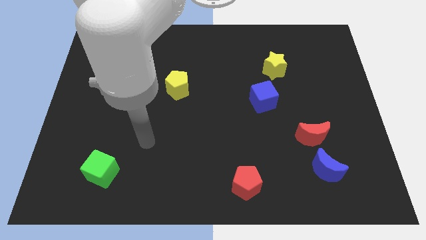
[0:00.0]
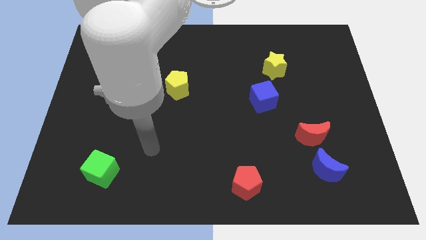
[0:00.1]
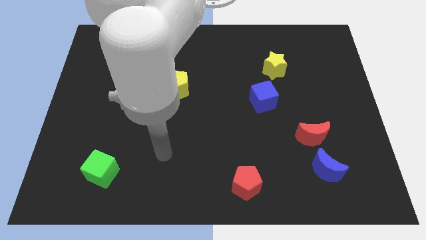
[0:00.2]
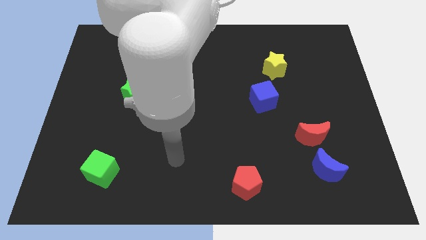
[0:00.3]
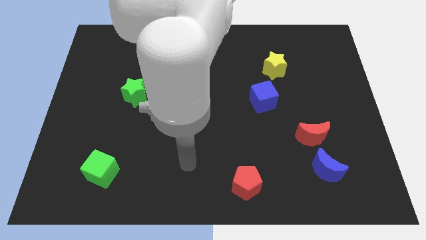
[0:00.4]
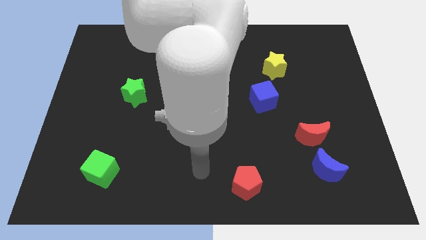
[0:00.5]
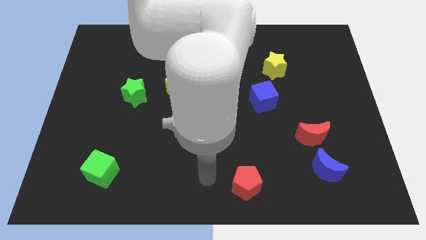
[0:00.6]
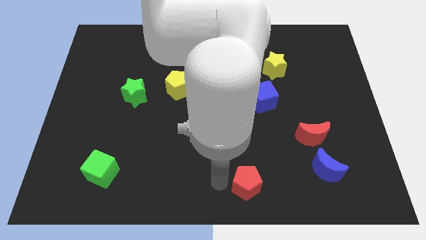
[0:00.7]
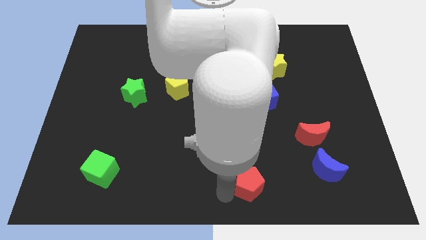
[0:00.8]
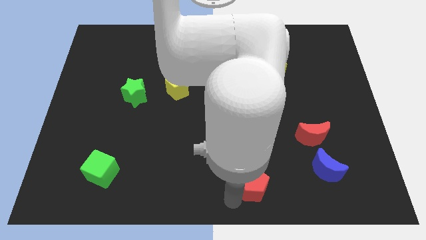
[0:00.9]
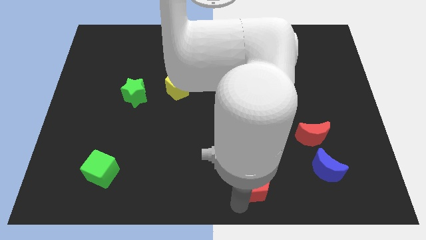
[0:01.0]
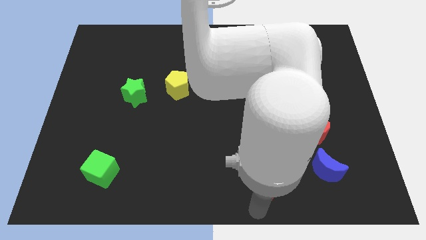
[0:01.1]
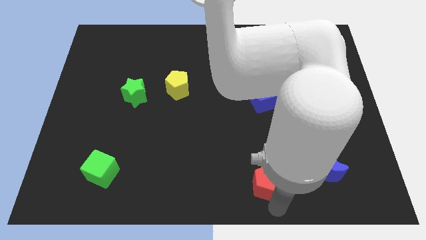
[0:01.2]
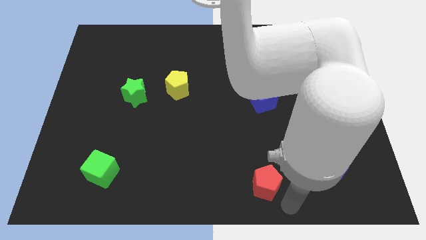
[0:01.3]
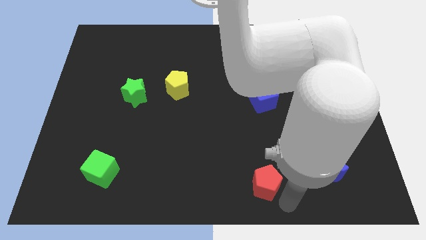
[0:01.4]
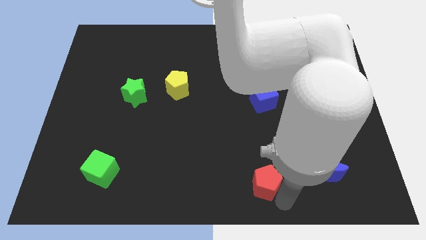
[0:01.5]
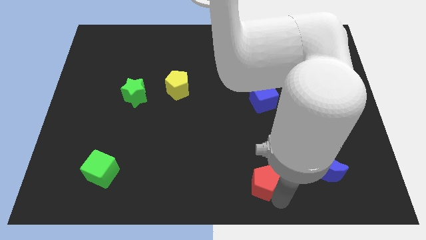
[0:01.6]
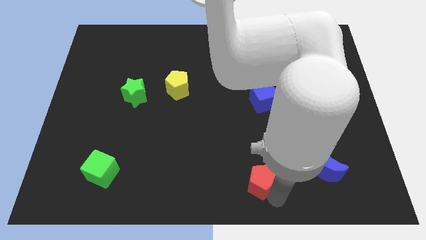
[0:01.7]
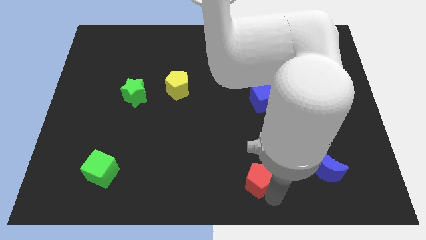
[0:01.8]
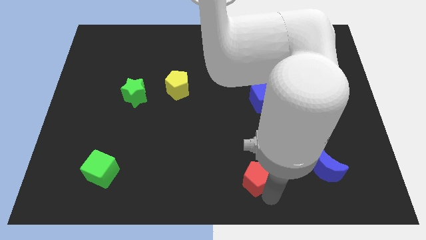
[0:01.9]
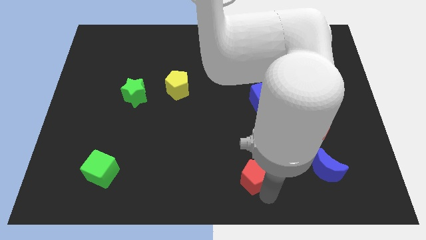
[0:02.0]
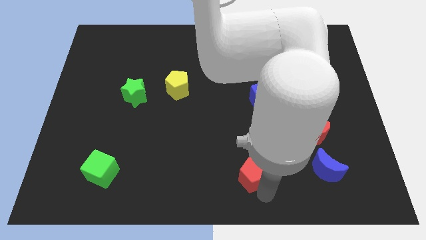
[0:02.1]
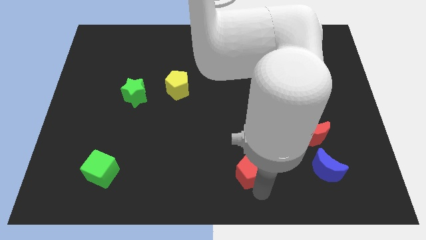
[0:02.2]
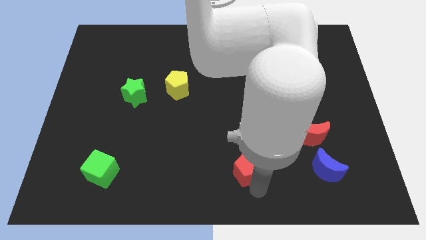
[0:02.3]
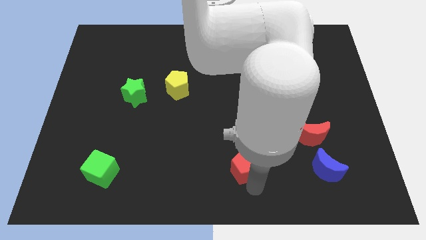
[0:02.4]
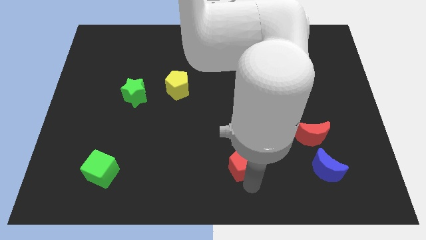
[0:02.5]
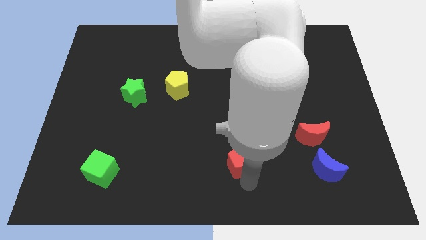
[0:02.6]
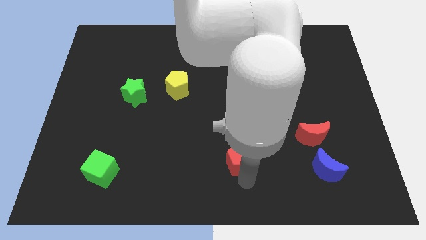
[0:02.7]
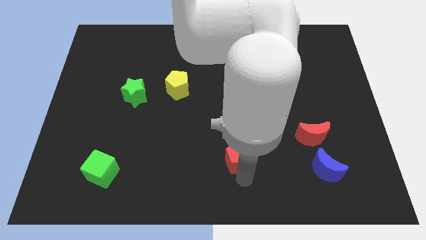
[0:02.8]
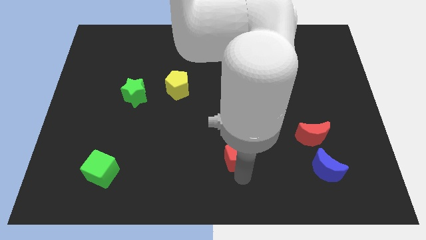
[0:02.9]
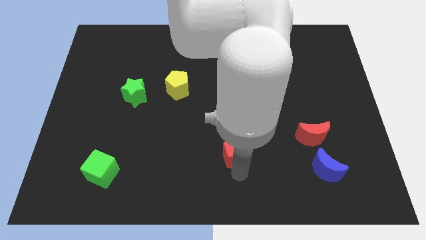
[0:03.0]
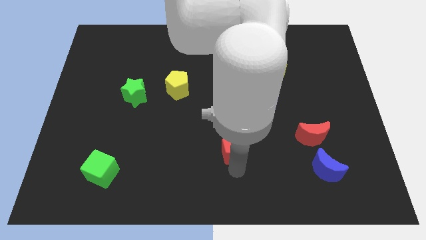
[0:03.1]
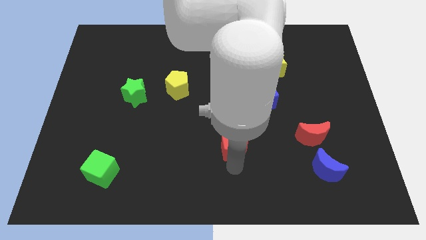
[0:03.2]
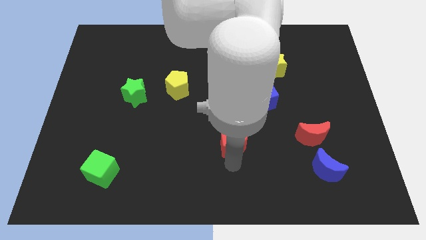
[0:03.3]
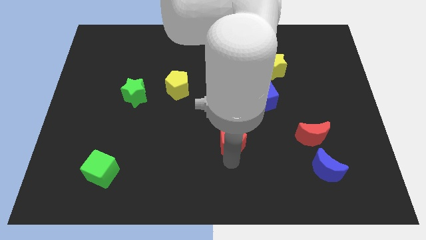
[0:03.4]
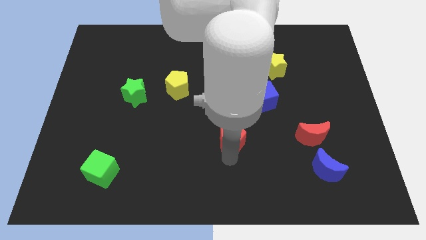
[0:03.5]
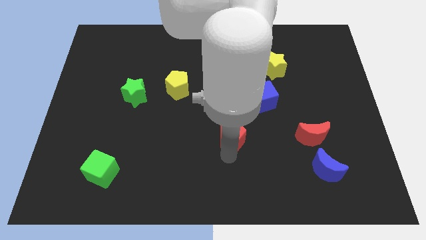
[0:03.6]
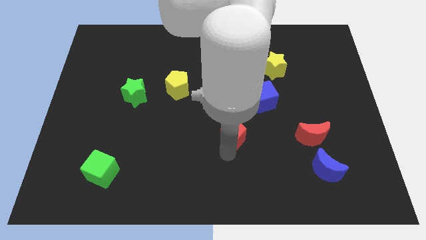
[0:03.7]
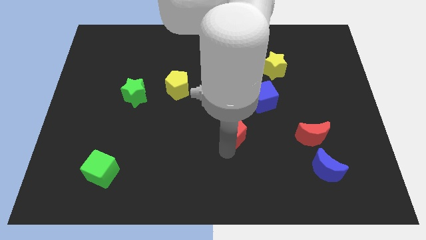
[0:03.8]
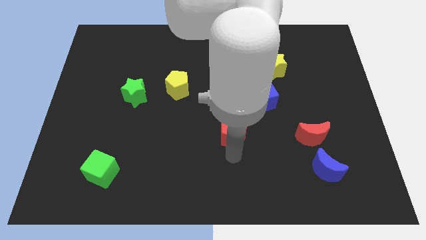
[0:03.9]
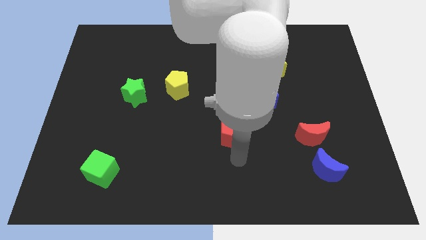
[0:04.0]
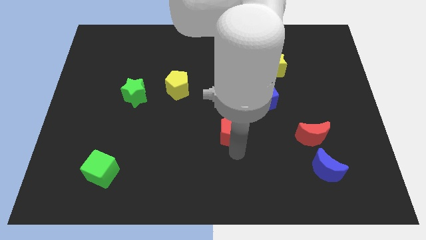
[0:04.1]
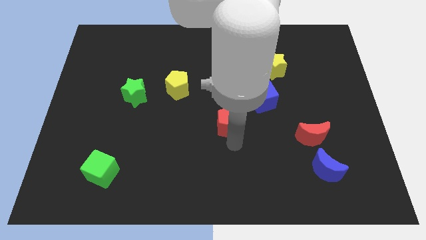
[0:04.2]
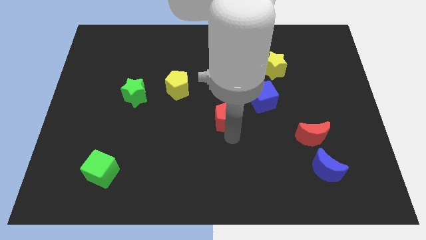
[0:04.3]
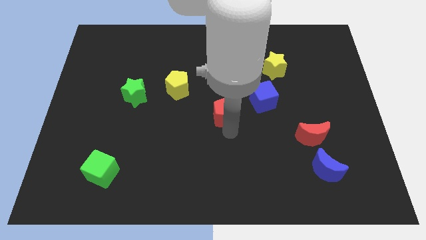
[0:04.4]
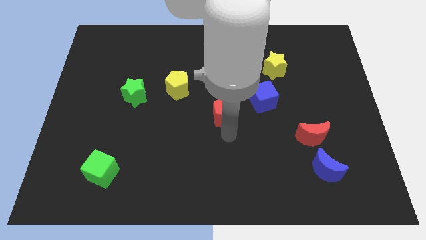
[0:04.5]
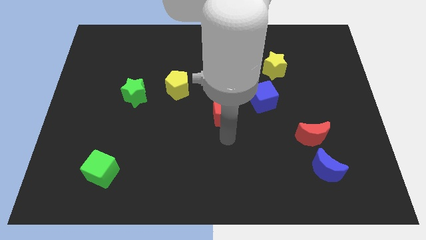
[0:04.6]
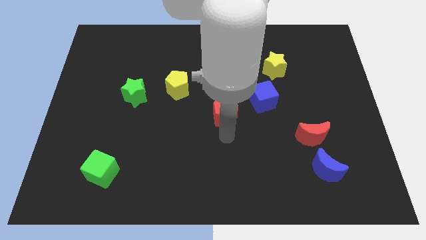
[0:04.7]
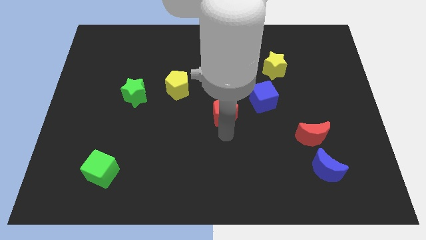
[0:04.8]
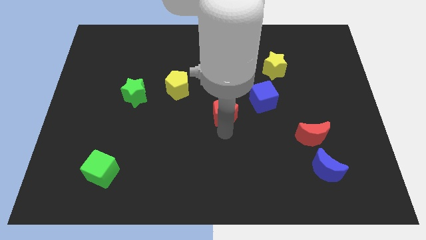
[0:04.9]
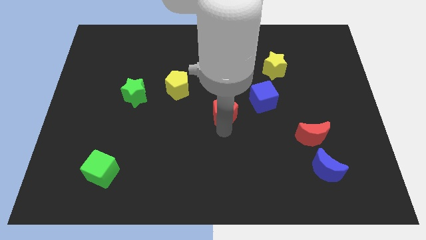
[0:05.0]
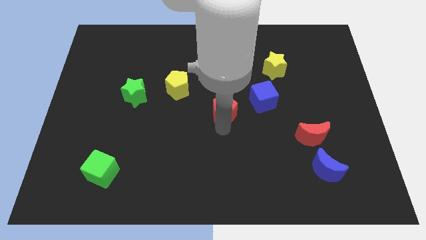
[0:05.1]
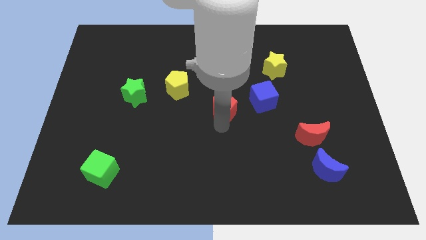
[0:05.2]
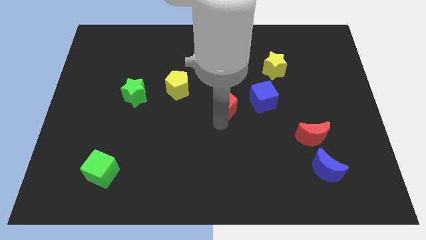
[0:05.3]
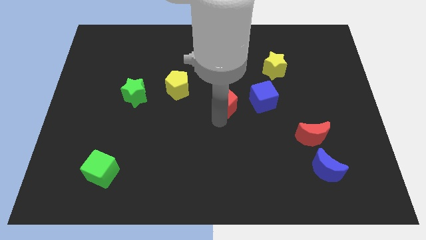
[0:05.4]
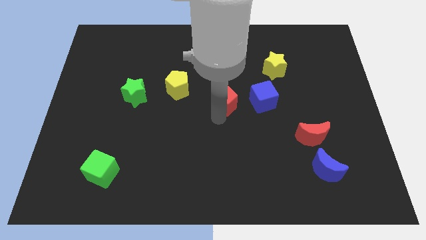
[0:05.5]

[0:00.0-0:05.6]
move the red pentagon right of the yellow pentagon

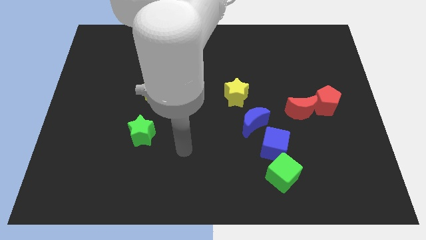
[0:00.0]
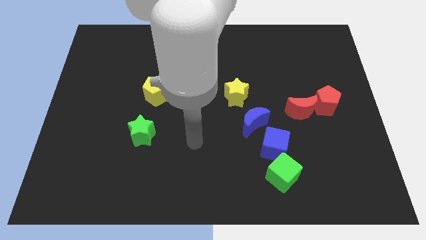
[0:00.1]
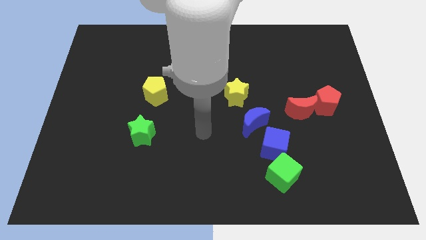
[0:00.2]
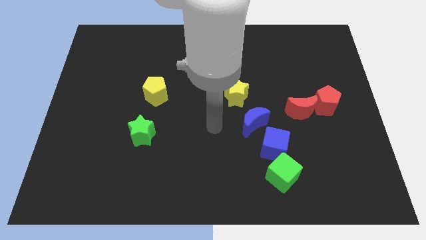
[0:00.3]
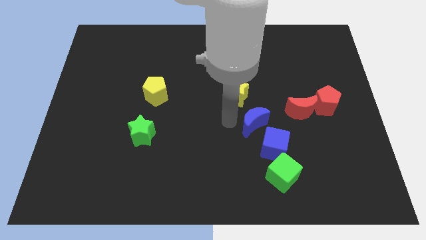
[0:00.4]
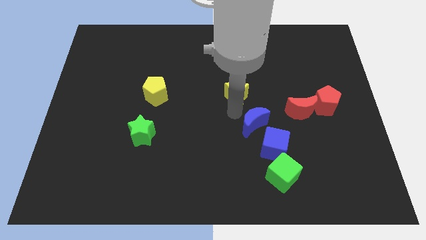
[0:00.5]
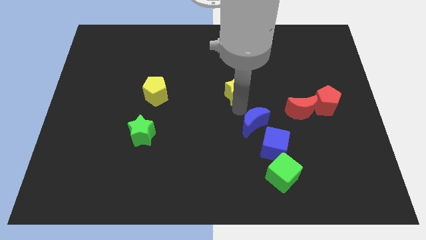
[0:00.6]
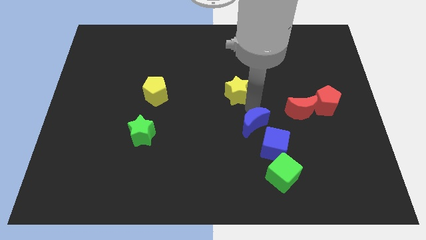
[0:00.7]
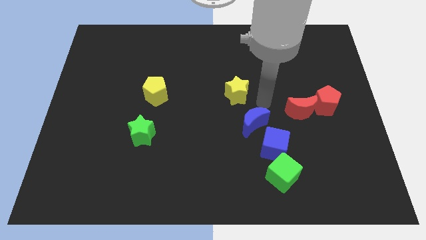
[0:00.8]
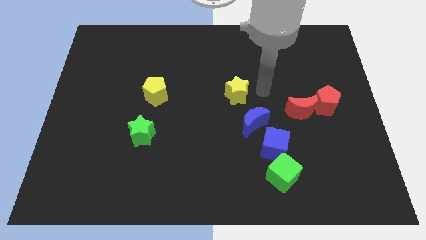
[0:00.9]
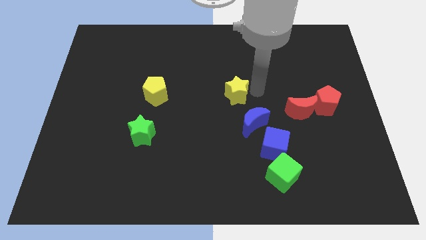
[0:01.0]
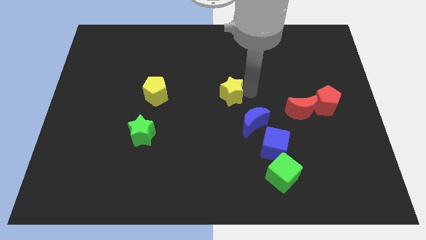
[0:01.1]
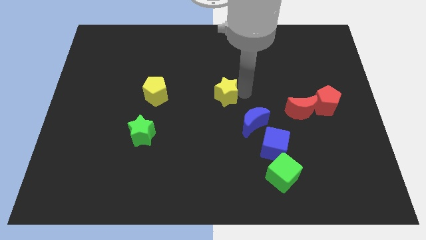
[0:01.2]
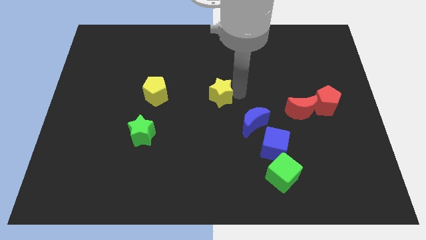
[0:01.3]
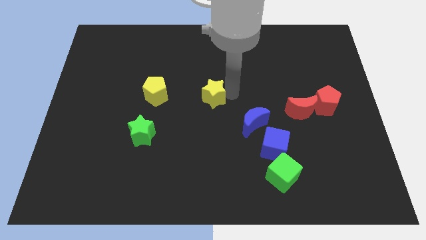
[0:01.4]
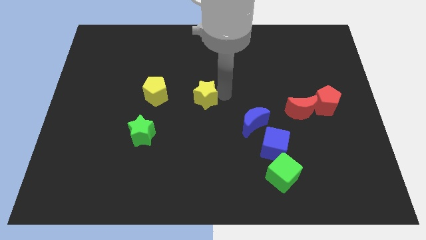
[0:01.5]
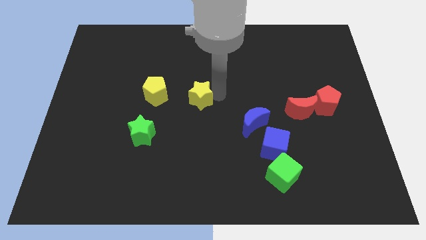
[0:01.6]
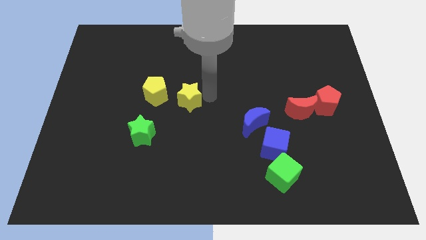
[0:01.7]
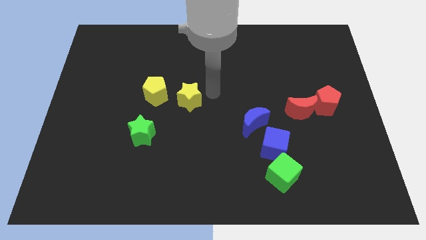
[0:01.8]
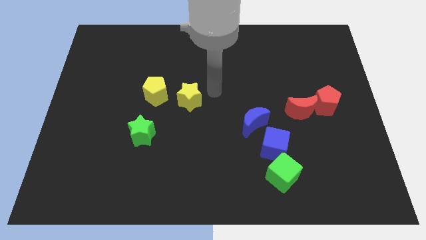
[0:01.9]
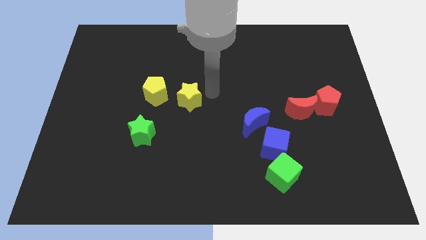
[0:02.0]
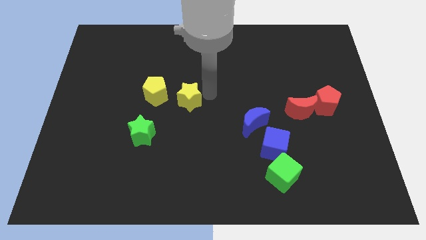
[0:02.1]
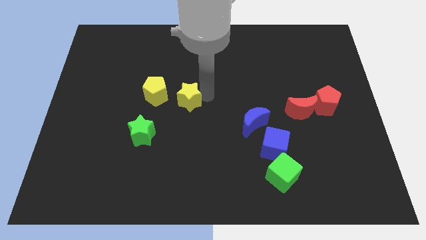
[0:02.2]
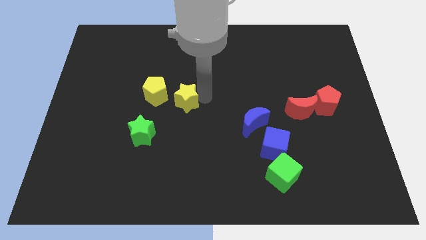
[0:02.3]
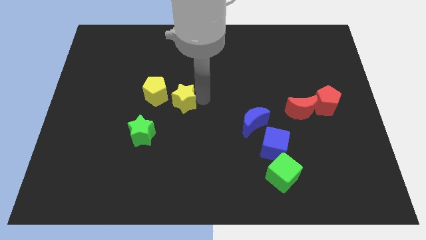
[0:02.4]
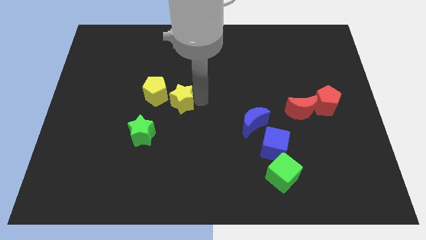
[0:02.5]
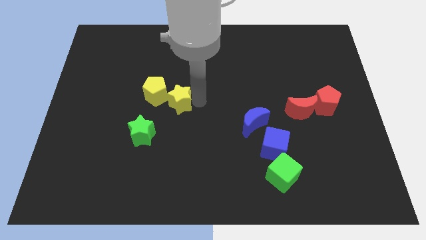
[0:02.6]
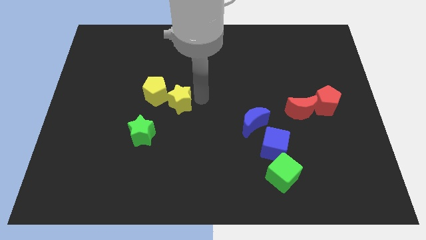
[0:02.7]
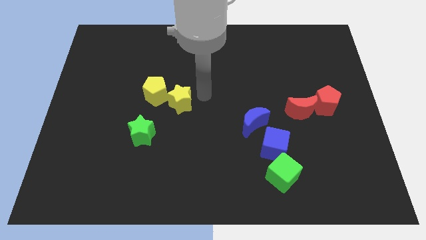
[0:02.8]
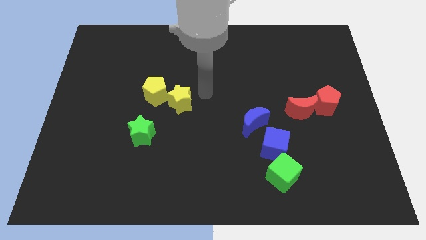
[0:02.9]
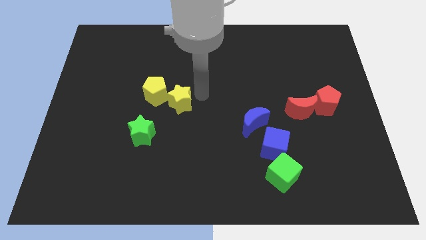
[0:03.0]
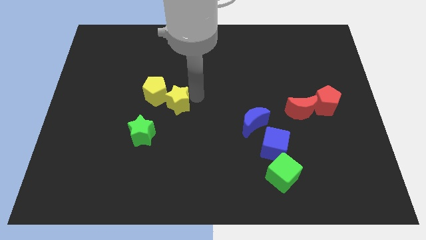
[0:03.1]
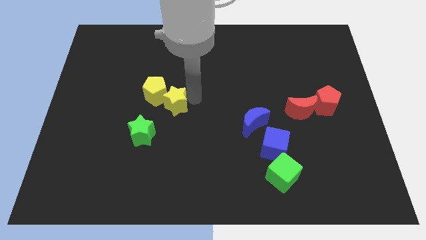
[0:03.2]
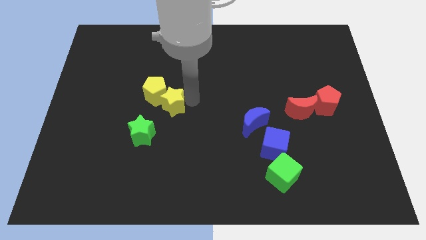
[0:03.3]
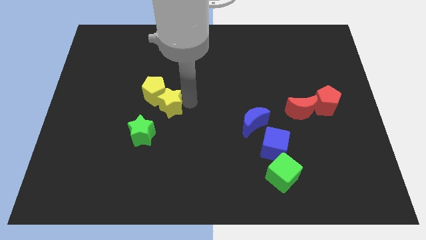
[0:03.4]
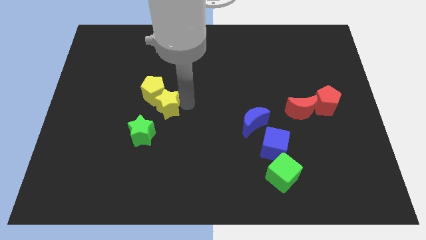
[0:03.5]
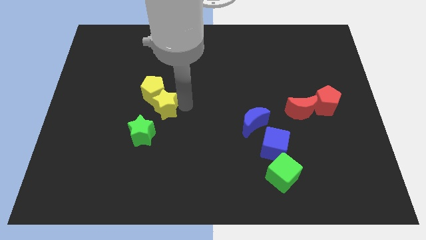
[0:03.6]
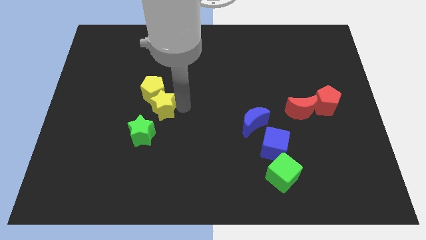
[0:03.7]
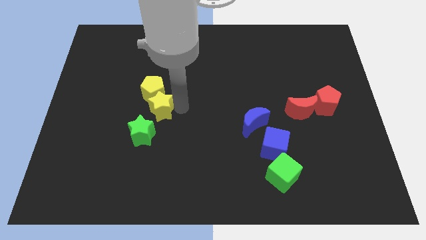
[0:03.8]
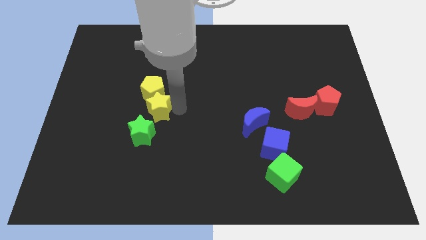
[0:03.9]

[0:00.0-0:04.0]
put the yellow star diagonally down and to the left of the yellow pentagon
